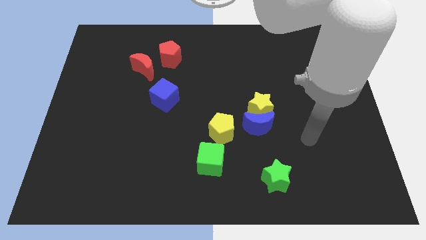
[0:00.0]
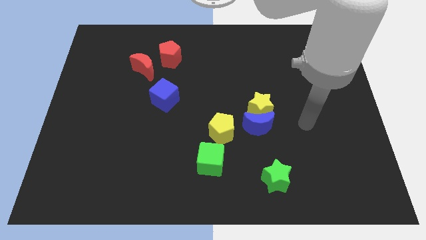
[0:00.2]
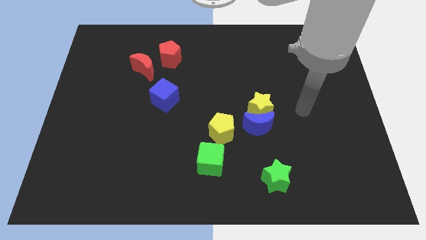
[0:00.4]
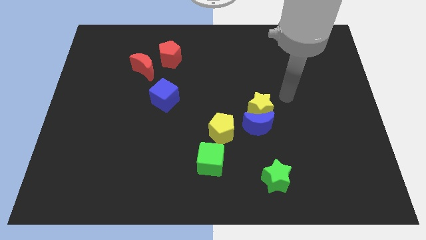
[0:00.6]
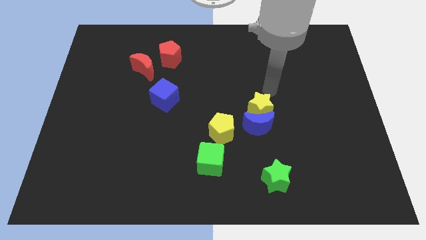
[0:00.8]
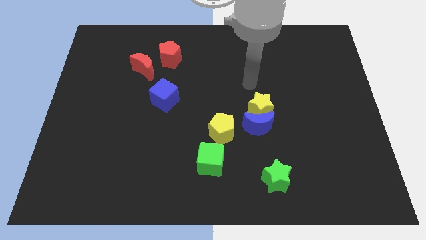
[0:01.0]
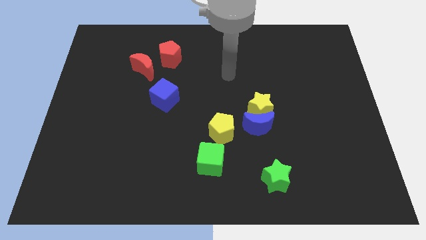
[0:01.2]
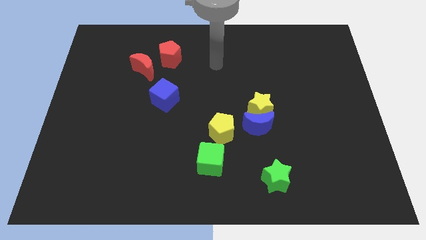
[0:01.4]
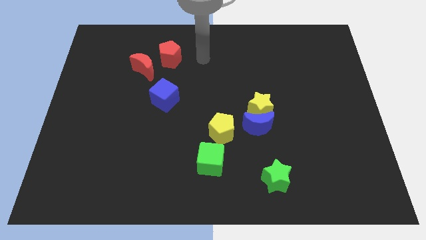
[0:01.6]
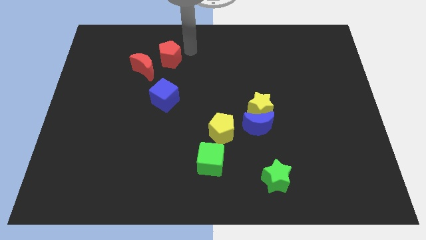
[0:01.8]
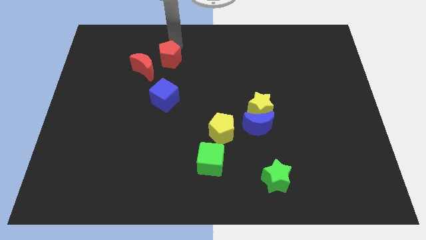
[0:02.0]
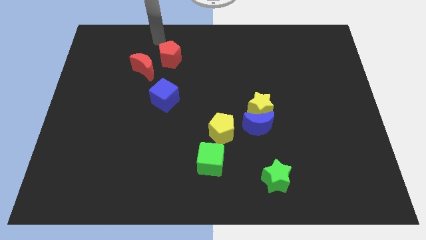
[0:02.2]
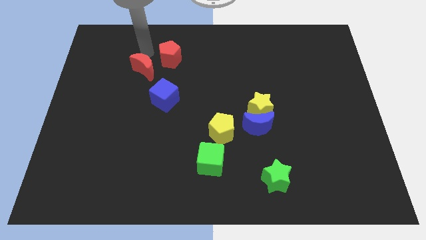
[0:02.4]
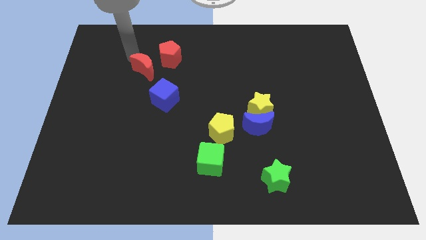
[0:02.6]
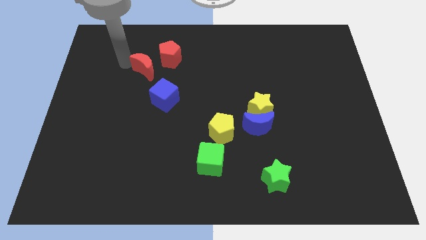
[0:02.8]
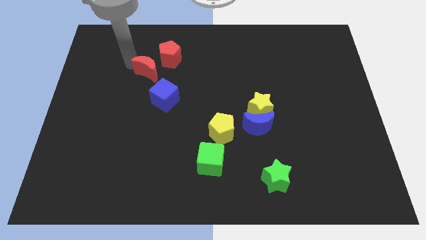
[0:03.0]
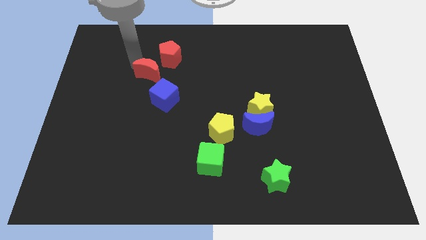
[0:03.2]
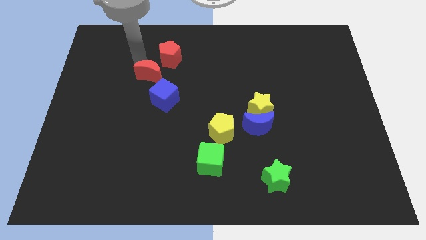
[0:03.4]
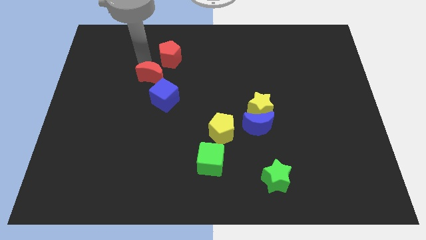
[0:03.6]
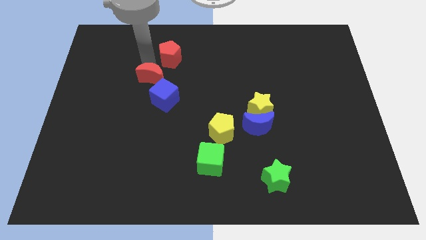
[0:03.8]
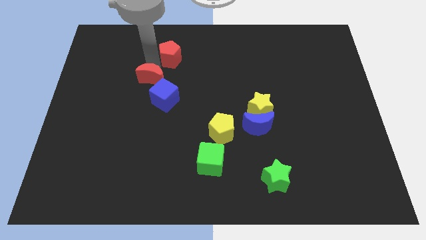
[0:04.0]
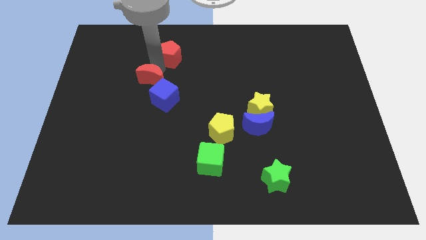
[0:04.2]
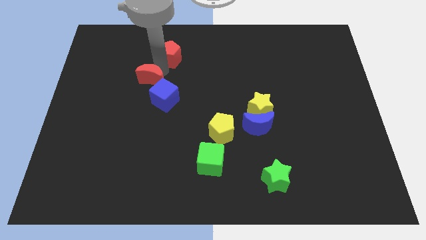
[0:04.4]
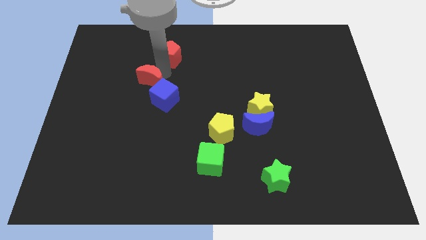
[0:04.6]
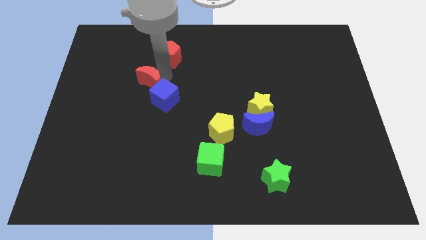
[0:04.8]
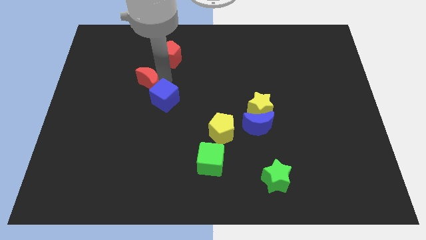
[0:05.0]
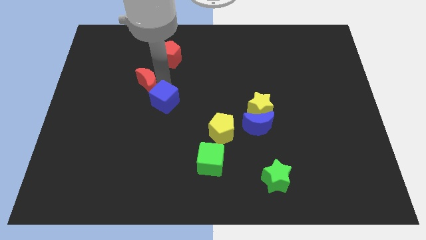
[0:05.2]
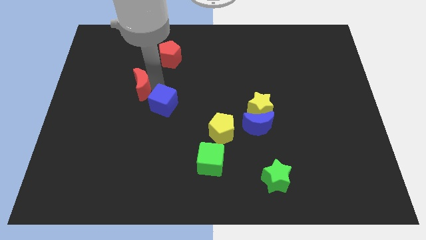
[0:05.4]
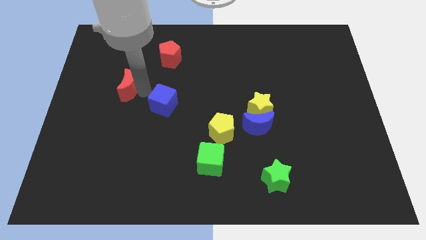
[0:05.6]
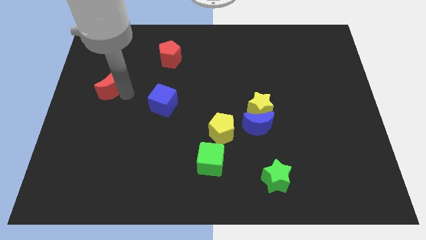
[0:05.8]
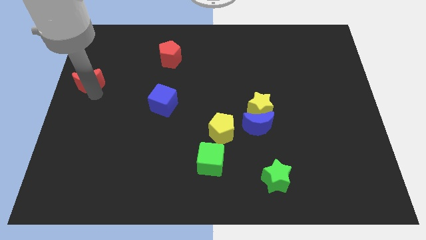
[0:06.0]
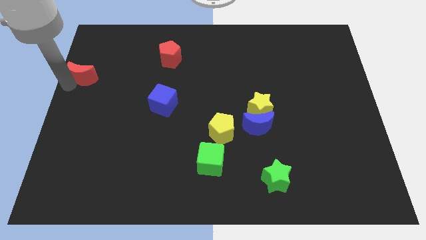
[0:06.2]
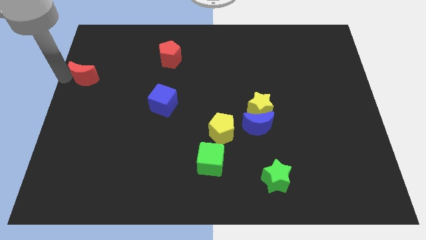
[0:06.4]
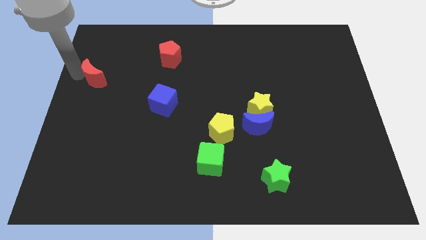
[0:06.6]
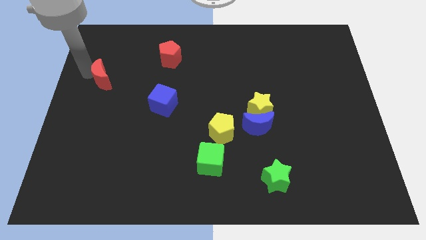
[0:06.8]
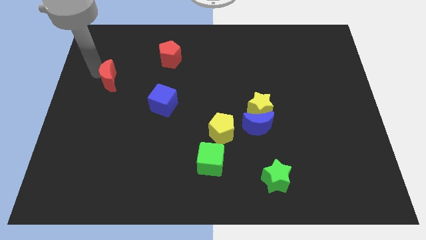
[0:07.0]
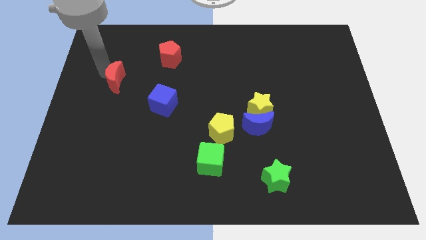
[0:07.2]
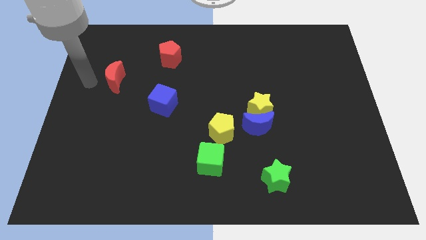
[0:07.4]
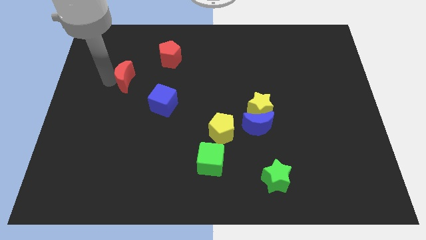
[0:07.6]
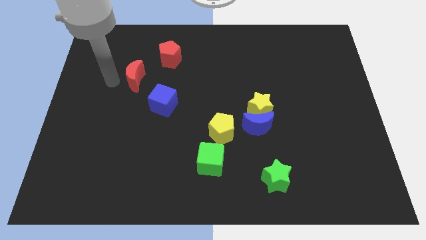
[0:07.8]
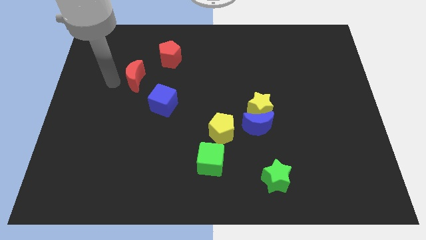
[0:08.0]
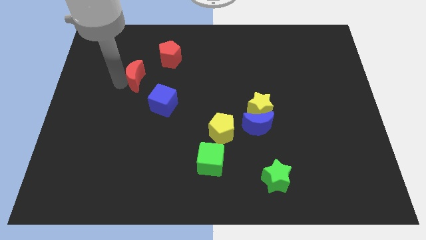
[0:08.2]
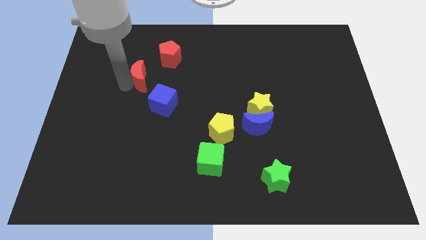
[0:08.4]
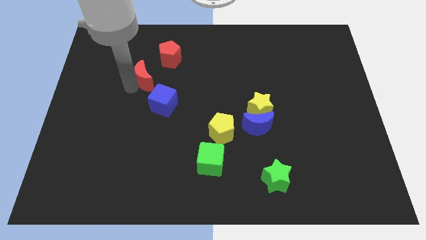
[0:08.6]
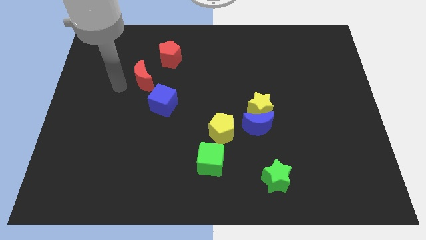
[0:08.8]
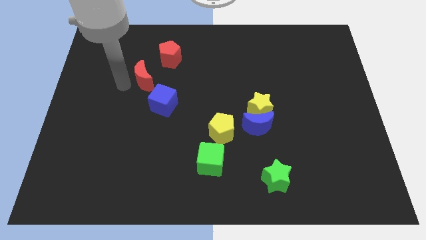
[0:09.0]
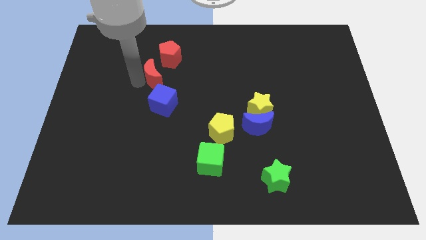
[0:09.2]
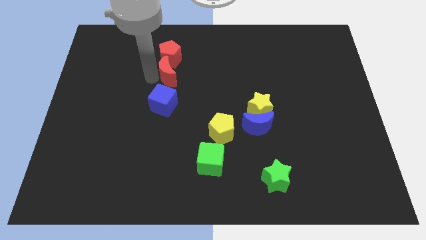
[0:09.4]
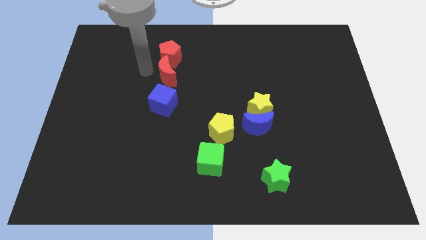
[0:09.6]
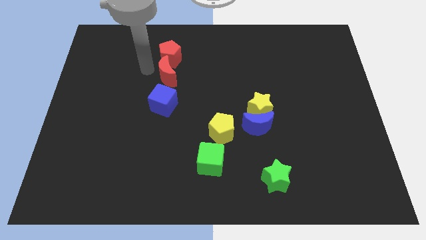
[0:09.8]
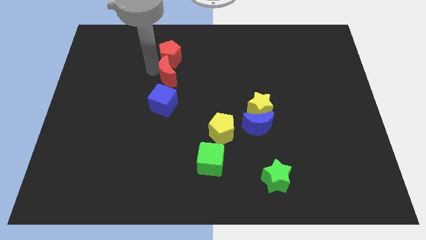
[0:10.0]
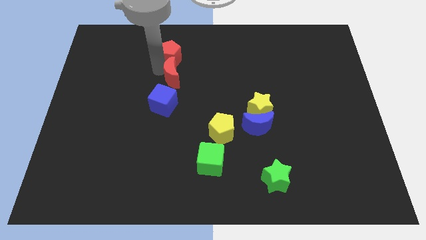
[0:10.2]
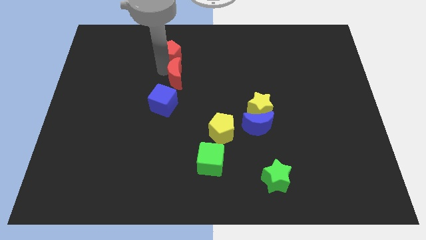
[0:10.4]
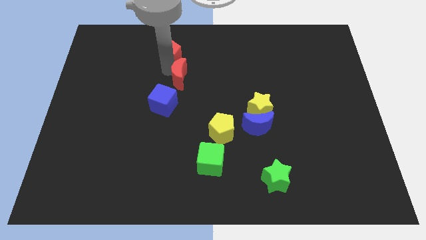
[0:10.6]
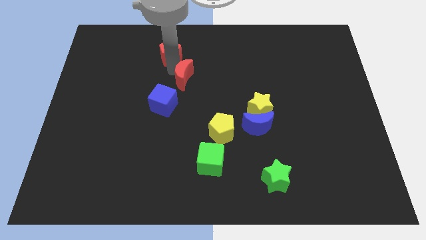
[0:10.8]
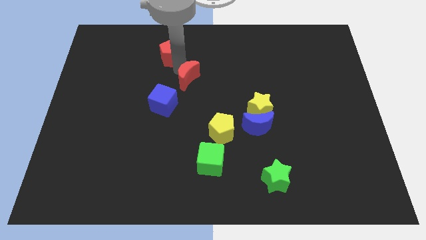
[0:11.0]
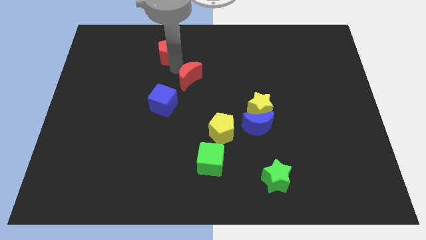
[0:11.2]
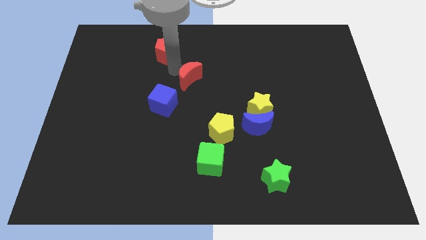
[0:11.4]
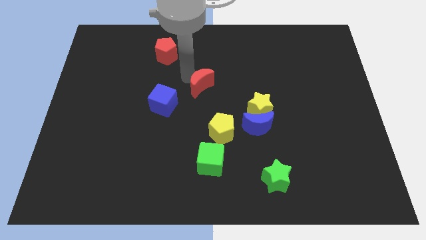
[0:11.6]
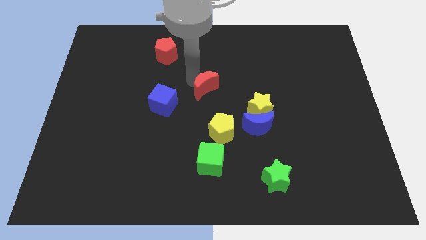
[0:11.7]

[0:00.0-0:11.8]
move the red moon above the yellow pentagon

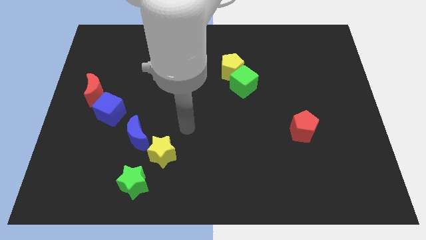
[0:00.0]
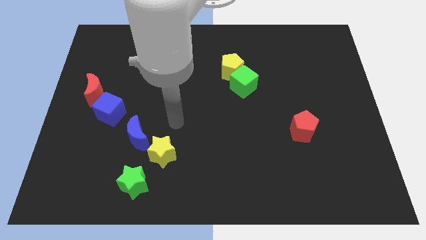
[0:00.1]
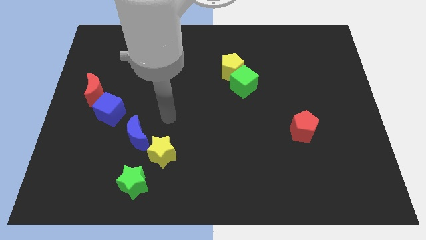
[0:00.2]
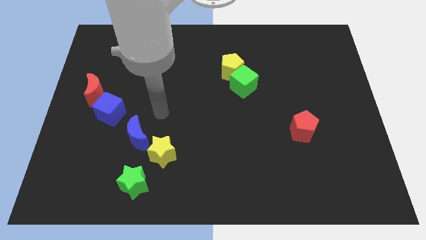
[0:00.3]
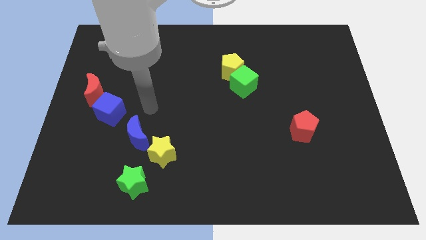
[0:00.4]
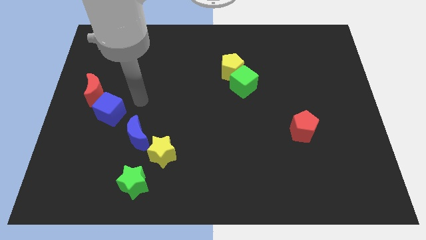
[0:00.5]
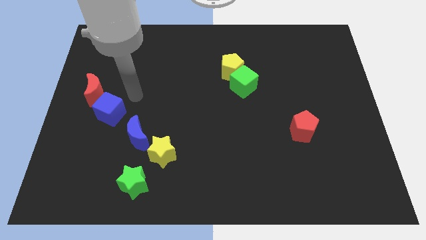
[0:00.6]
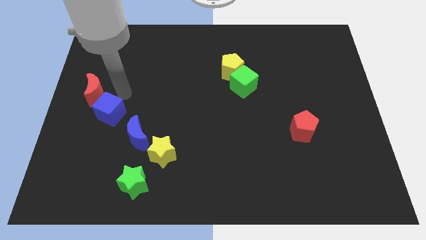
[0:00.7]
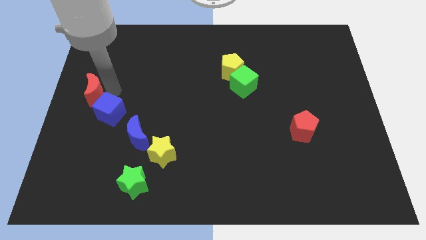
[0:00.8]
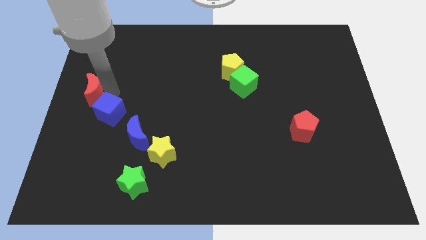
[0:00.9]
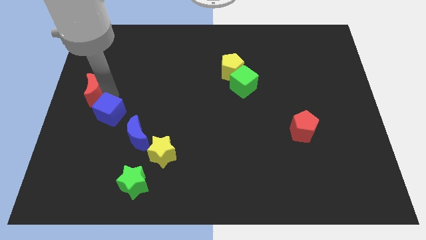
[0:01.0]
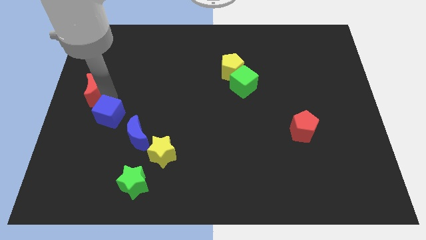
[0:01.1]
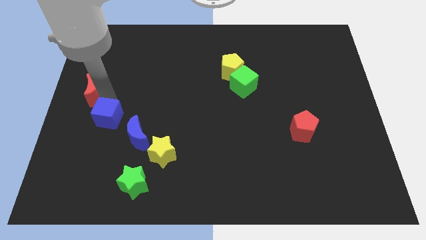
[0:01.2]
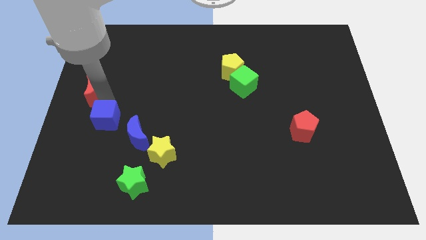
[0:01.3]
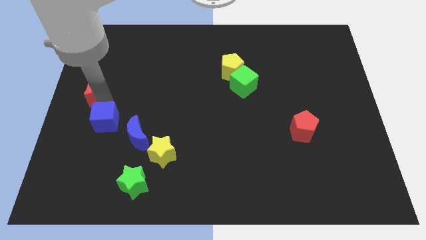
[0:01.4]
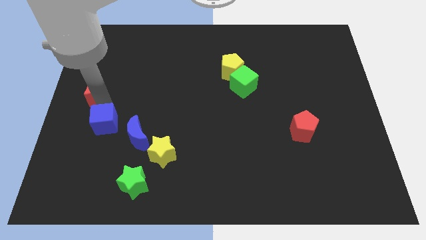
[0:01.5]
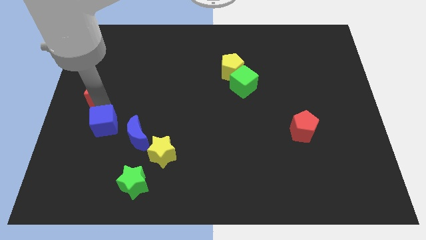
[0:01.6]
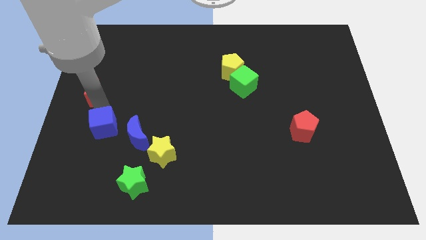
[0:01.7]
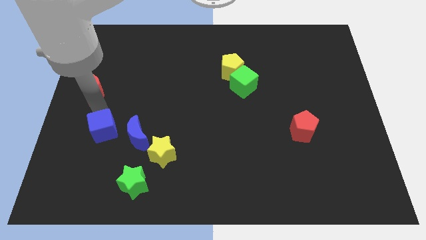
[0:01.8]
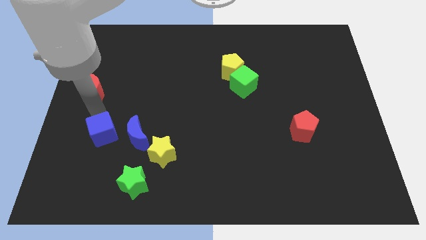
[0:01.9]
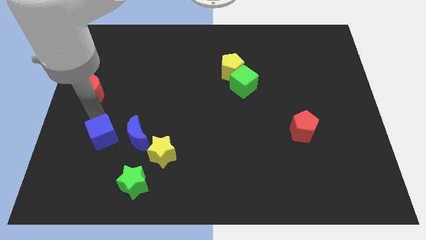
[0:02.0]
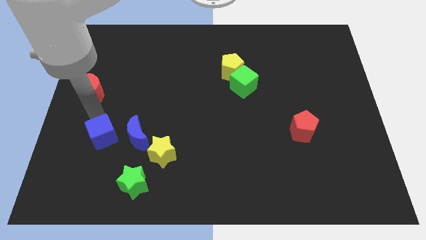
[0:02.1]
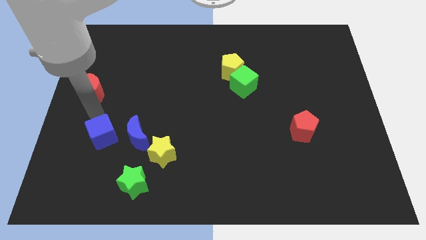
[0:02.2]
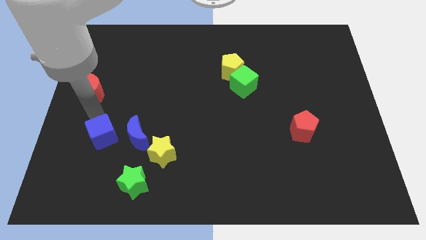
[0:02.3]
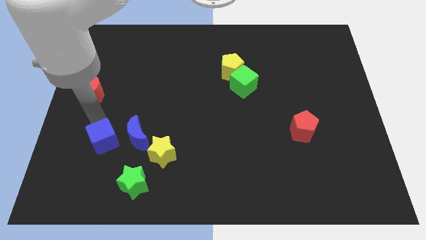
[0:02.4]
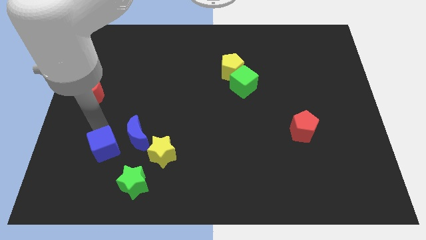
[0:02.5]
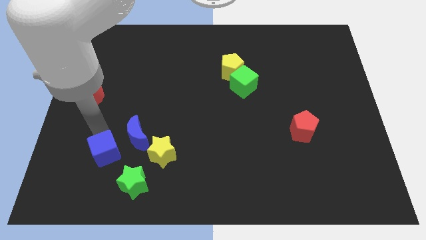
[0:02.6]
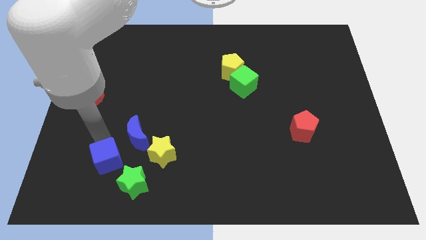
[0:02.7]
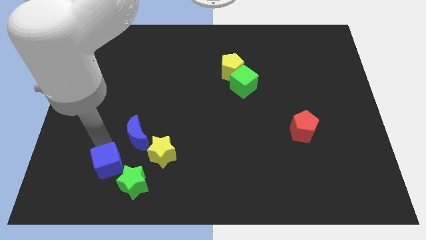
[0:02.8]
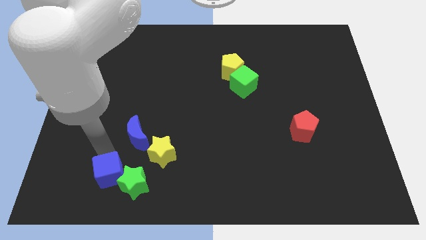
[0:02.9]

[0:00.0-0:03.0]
push the blue cube to the bottom of the blue moon
